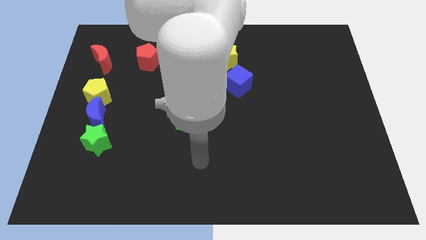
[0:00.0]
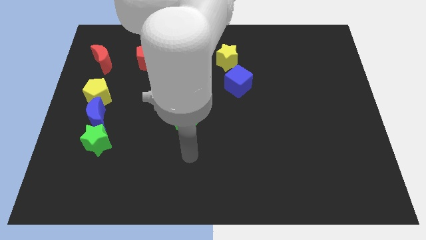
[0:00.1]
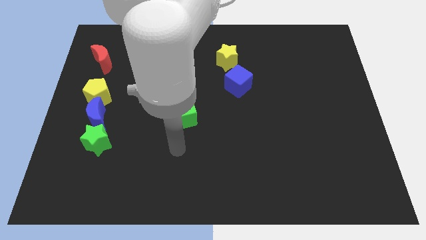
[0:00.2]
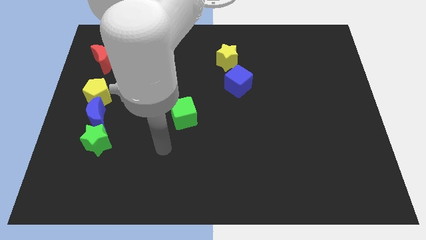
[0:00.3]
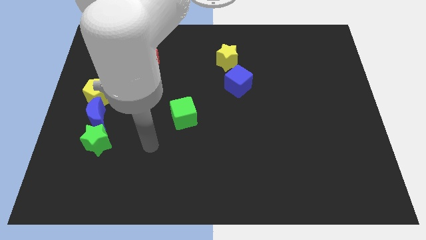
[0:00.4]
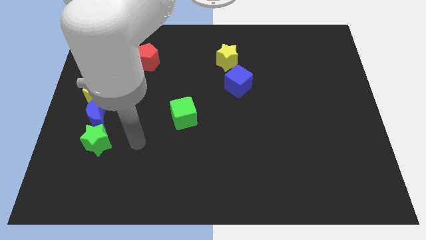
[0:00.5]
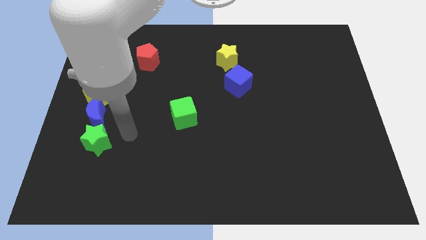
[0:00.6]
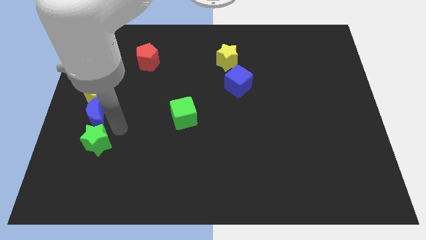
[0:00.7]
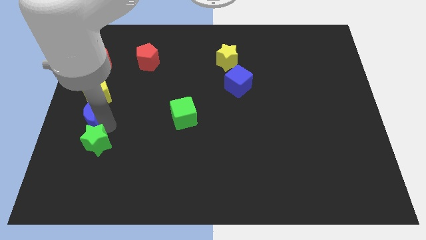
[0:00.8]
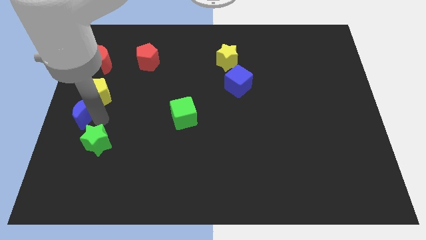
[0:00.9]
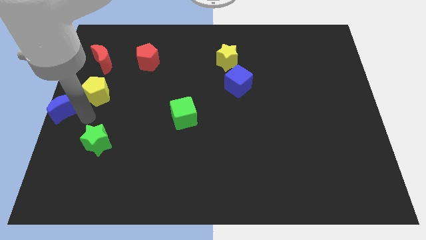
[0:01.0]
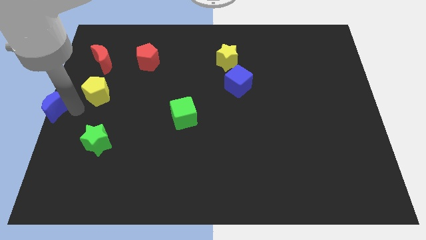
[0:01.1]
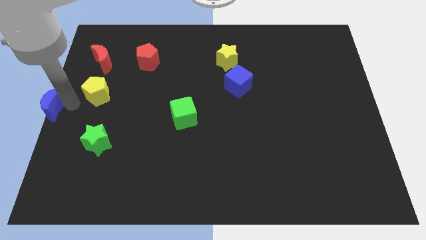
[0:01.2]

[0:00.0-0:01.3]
pull the yellow pentagon apart from the blue moon

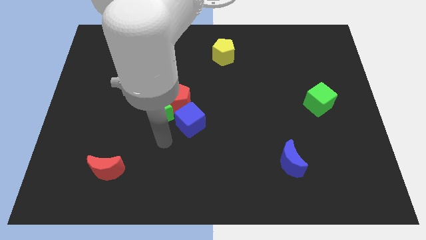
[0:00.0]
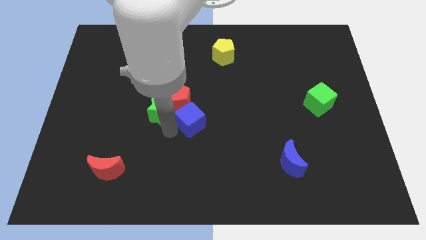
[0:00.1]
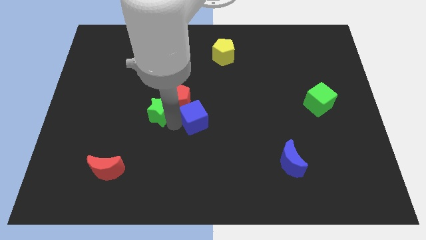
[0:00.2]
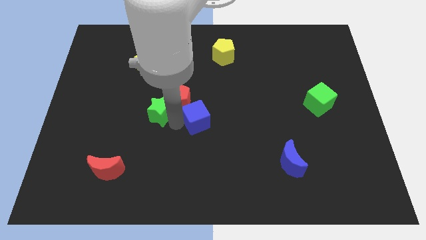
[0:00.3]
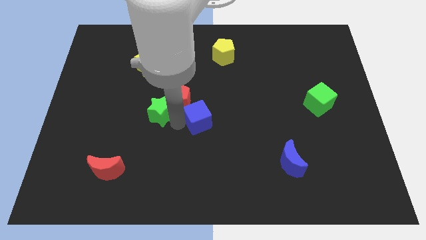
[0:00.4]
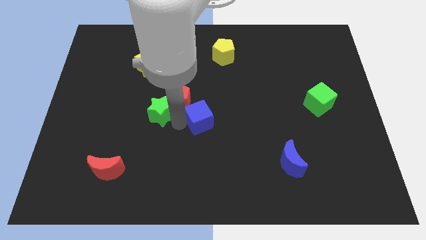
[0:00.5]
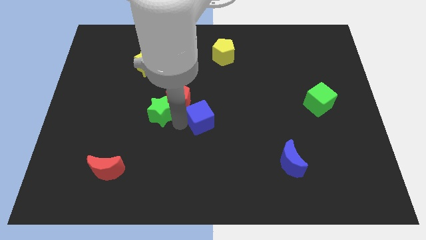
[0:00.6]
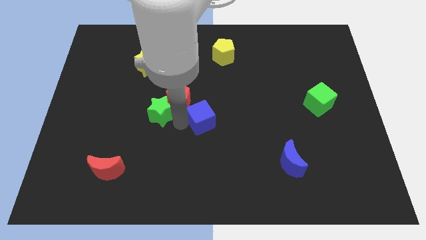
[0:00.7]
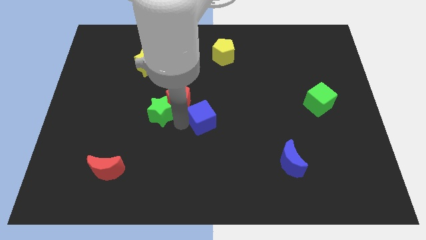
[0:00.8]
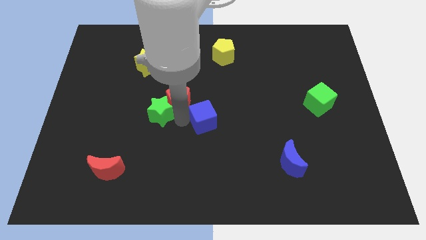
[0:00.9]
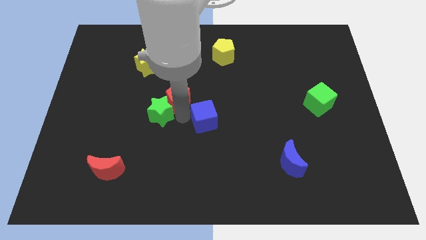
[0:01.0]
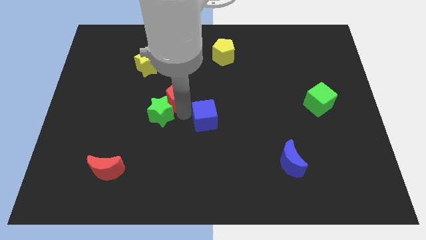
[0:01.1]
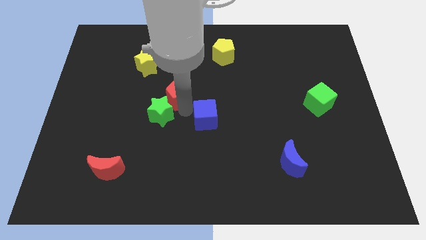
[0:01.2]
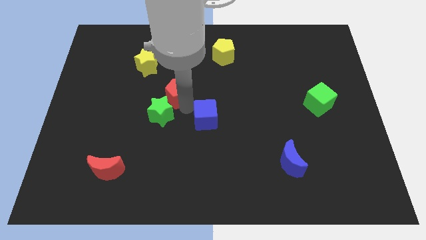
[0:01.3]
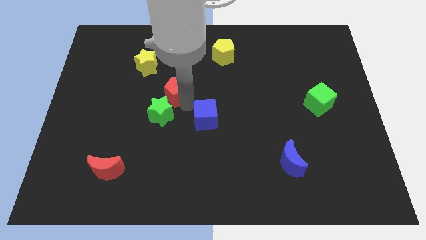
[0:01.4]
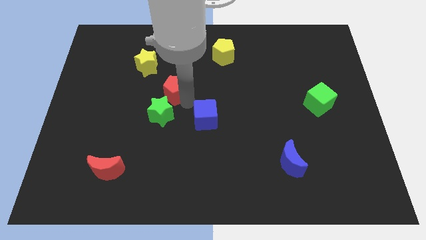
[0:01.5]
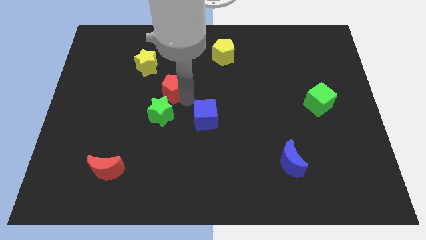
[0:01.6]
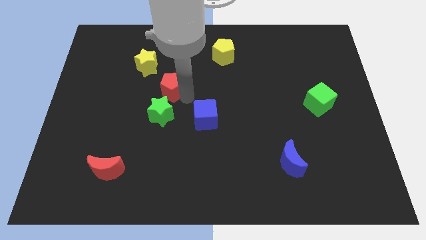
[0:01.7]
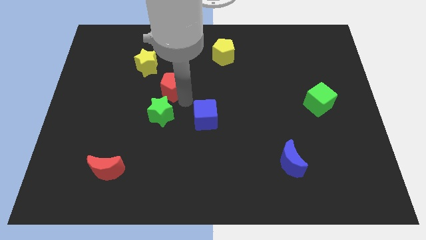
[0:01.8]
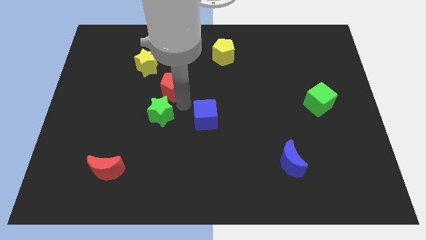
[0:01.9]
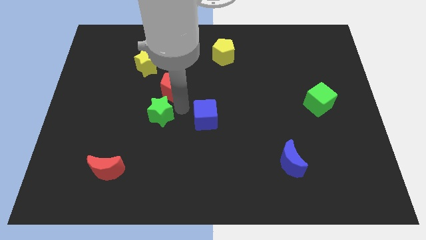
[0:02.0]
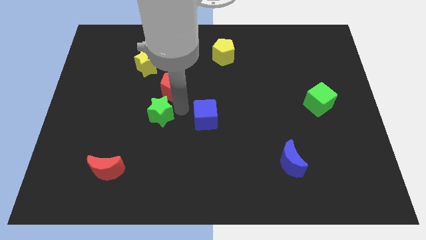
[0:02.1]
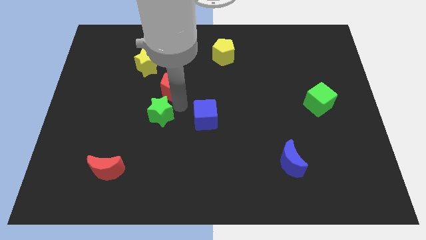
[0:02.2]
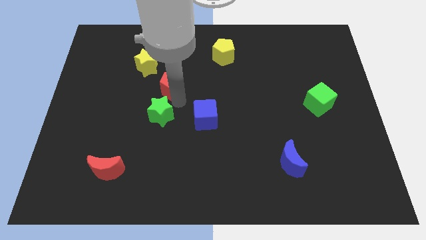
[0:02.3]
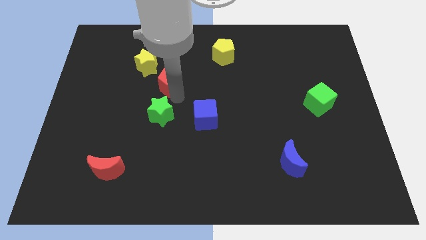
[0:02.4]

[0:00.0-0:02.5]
separate the red pentagon from the green star and blue cube

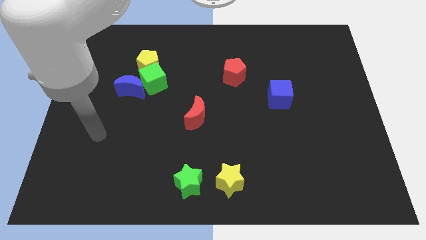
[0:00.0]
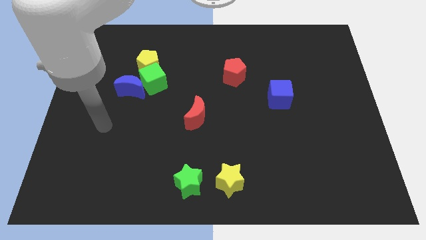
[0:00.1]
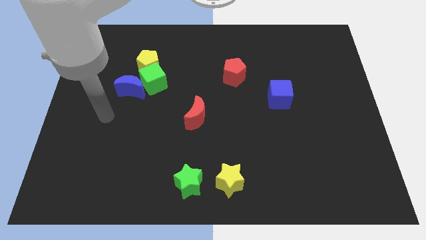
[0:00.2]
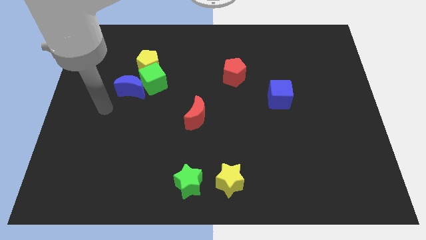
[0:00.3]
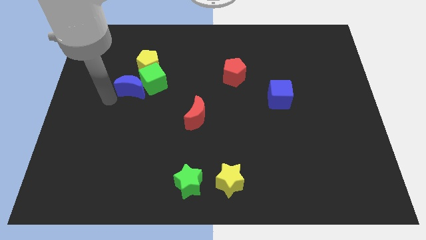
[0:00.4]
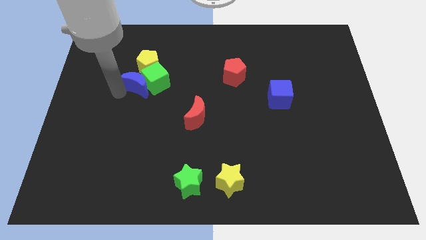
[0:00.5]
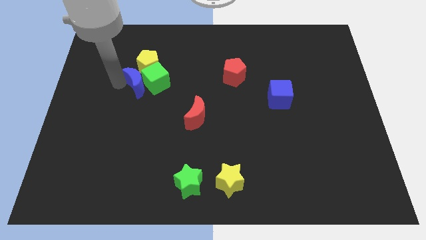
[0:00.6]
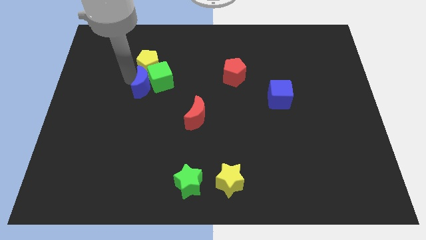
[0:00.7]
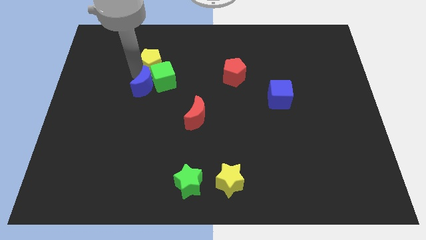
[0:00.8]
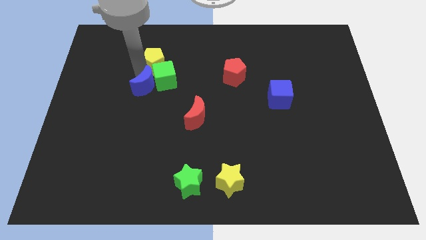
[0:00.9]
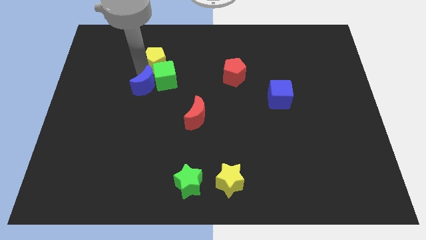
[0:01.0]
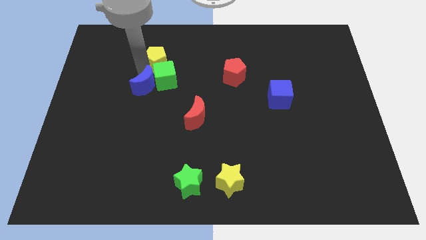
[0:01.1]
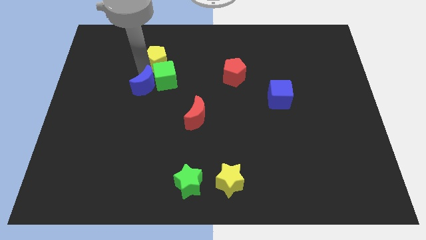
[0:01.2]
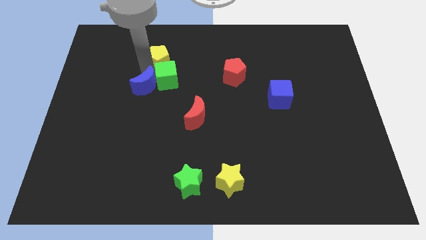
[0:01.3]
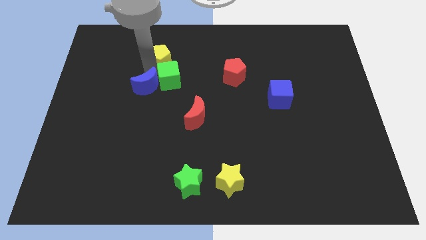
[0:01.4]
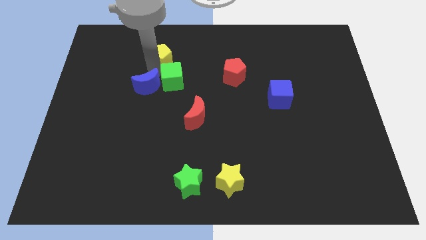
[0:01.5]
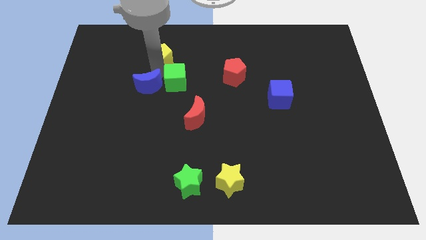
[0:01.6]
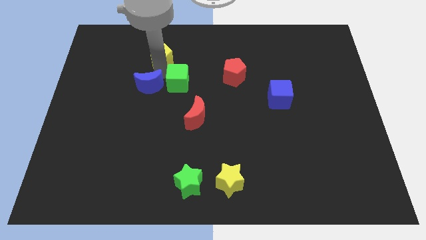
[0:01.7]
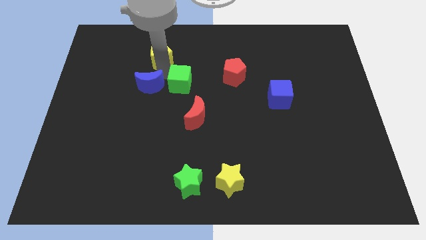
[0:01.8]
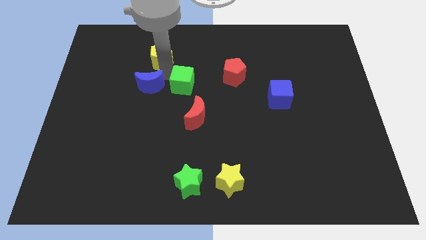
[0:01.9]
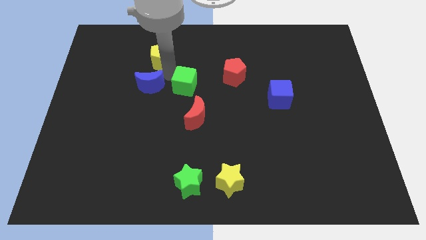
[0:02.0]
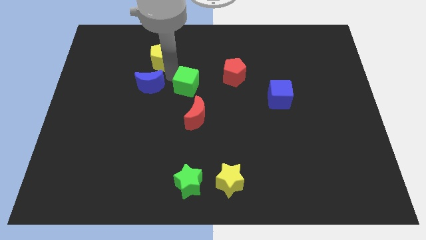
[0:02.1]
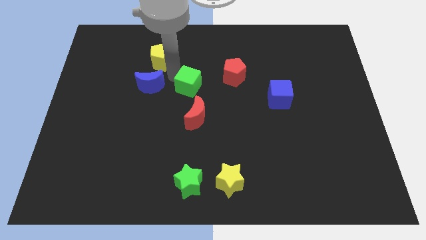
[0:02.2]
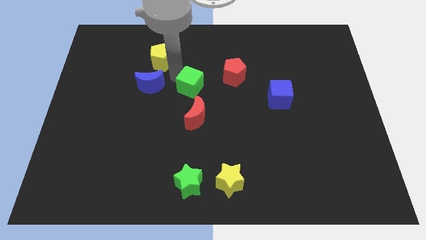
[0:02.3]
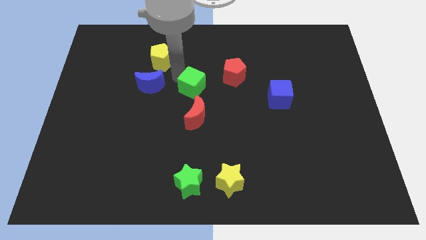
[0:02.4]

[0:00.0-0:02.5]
move the green cube away from the yellow pentagon and blue moon

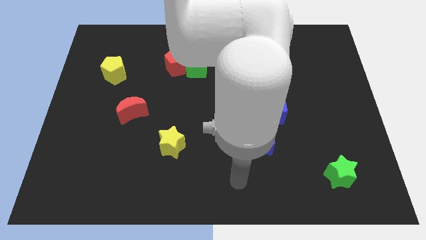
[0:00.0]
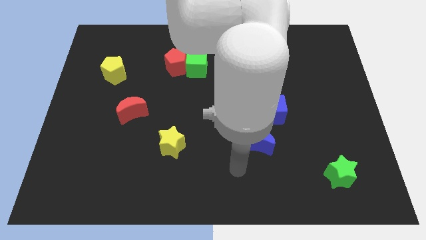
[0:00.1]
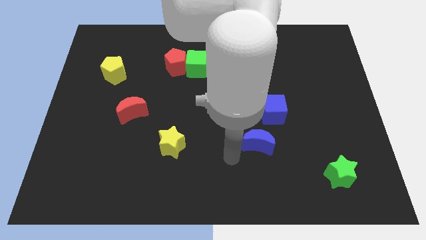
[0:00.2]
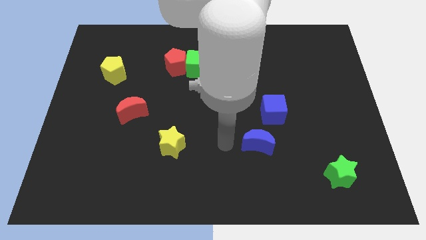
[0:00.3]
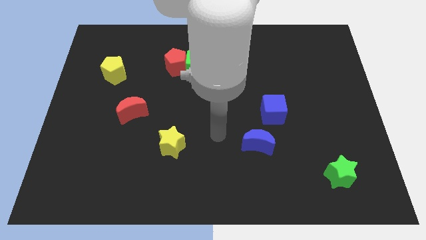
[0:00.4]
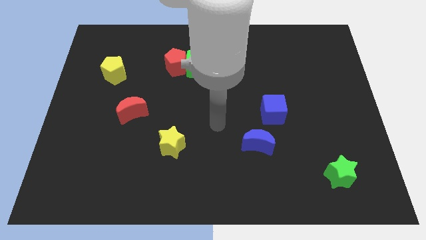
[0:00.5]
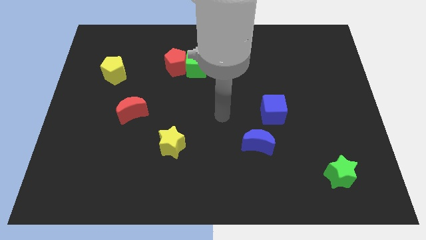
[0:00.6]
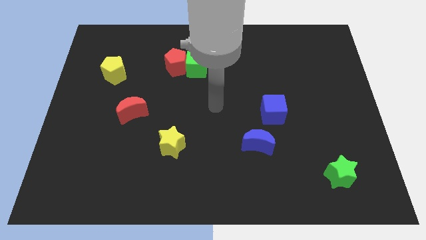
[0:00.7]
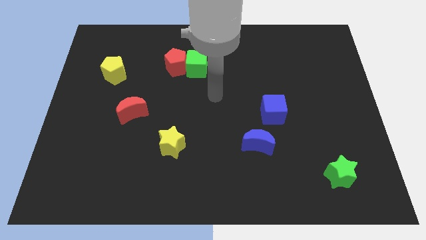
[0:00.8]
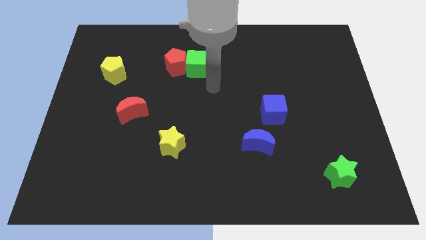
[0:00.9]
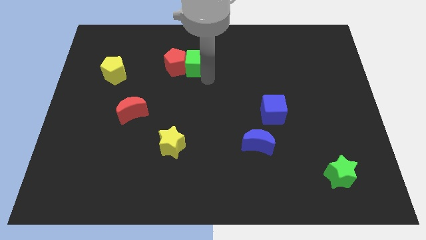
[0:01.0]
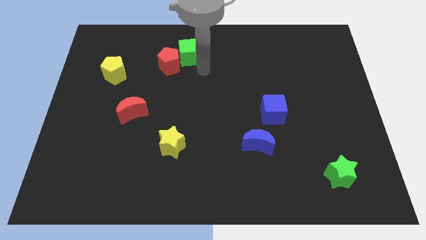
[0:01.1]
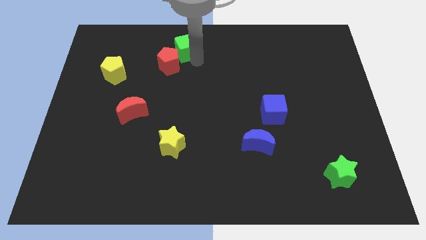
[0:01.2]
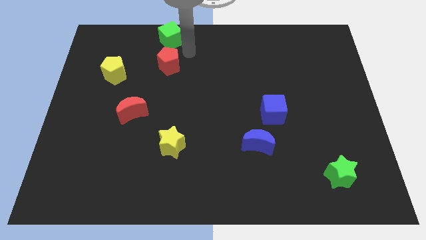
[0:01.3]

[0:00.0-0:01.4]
pull the red pentagon apart from the green cube

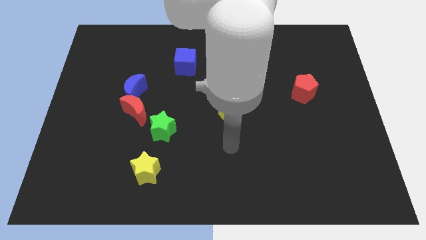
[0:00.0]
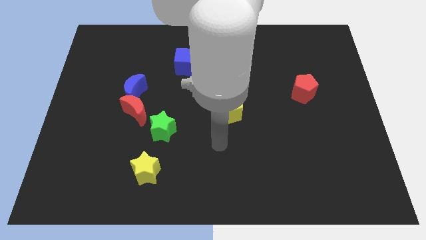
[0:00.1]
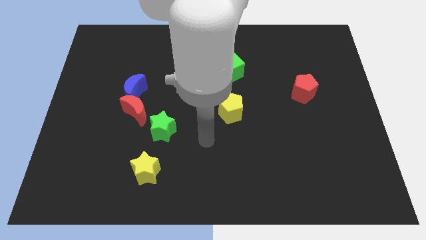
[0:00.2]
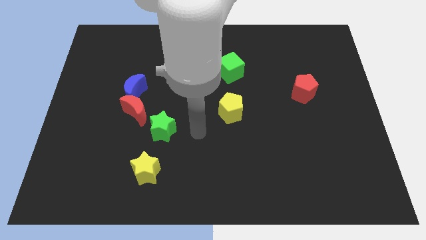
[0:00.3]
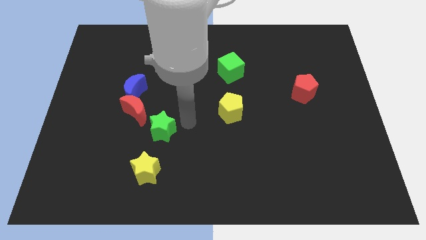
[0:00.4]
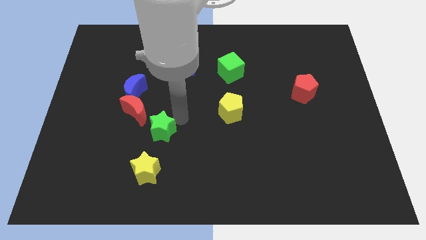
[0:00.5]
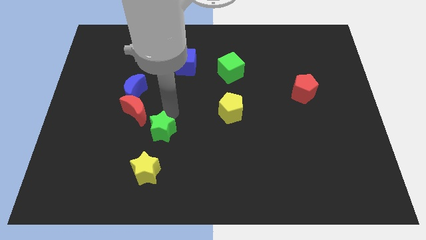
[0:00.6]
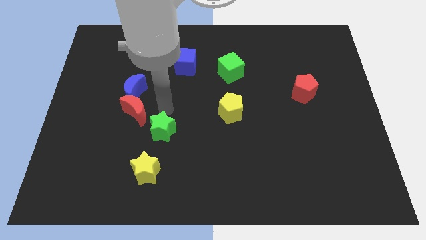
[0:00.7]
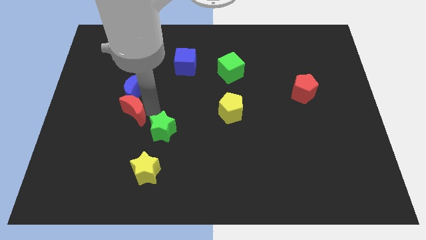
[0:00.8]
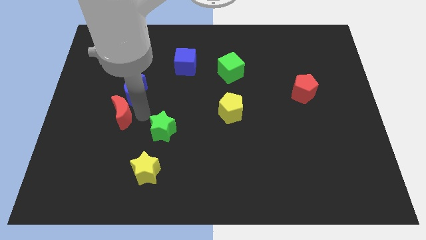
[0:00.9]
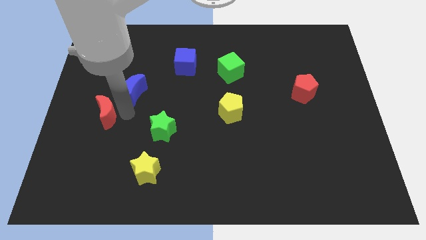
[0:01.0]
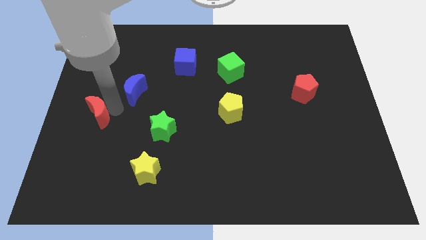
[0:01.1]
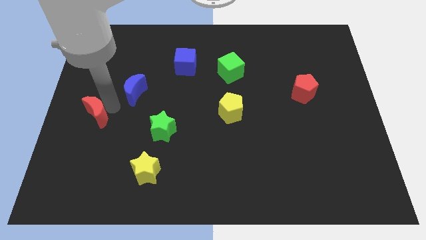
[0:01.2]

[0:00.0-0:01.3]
separate the blue moon from the red moon

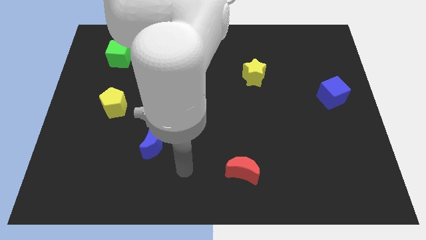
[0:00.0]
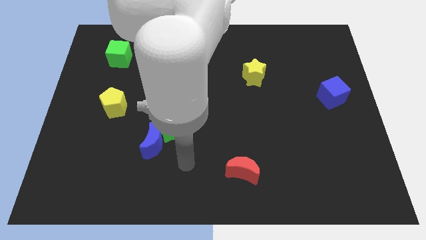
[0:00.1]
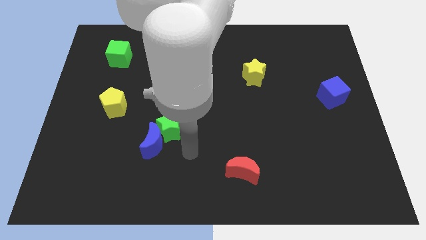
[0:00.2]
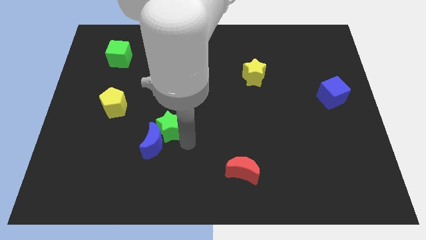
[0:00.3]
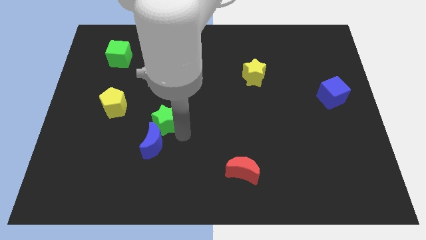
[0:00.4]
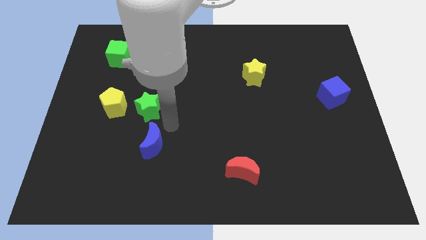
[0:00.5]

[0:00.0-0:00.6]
pull the blue moon apart from the green star
